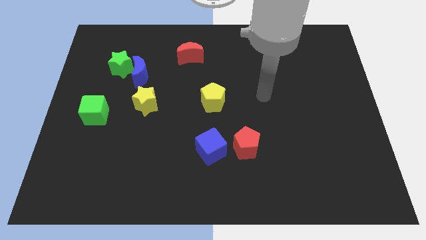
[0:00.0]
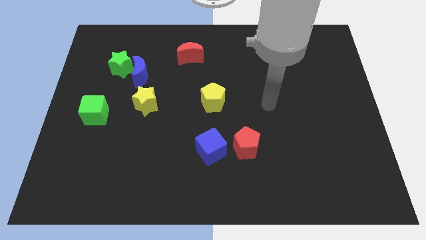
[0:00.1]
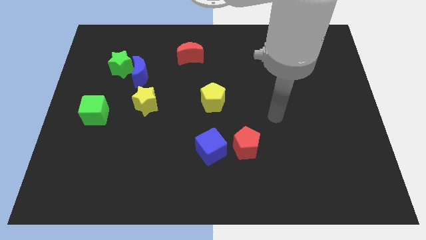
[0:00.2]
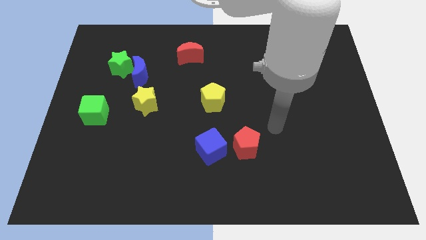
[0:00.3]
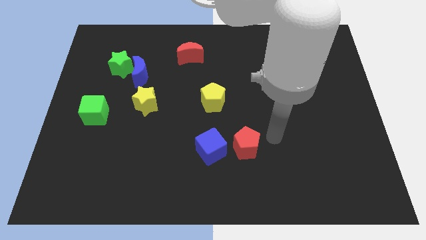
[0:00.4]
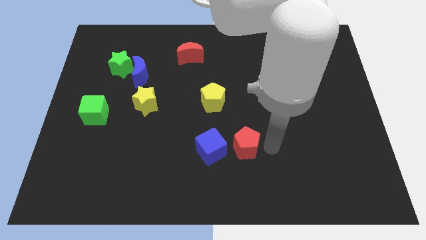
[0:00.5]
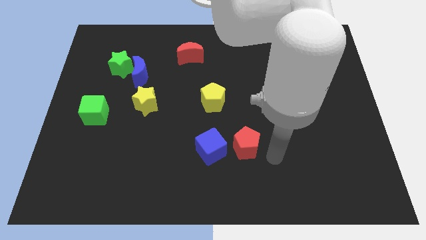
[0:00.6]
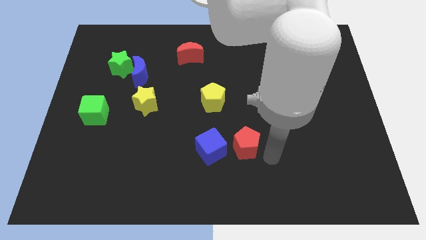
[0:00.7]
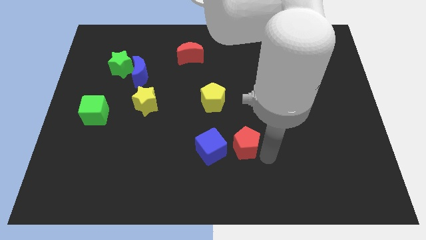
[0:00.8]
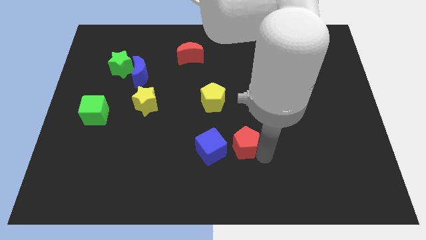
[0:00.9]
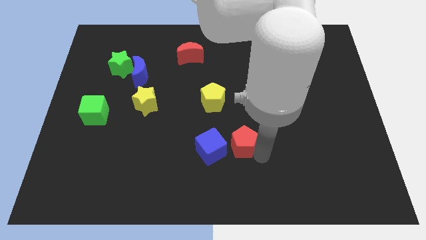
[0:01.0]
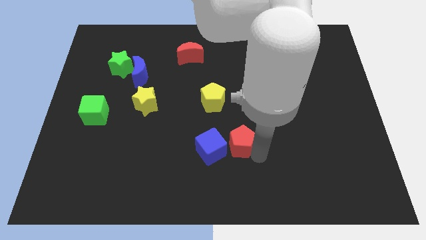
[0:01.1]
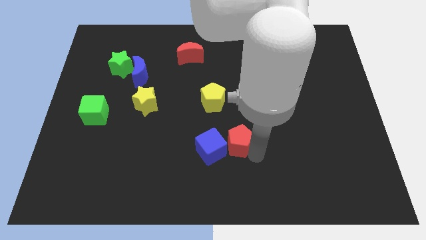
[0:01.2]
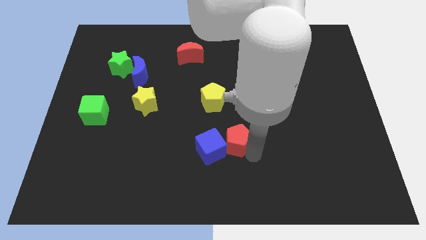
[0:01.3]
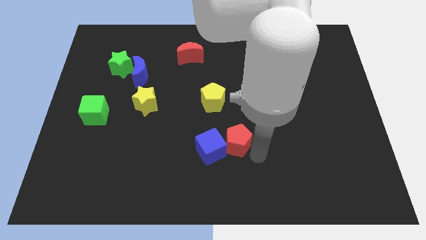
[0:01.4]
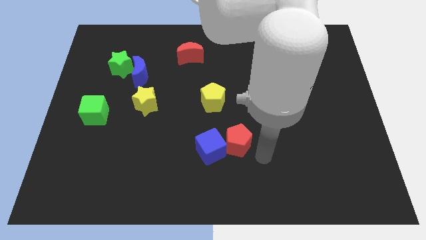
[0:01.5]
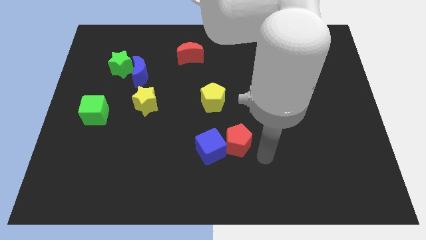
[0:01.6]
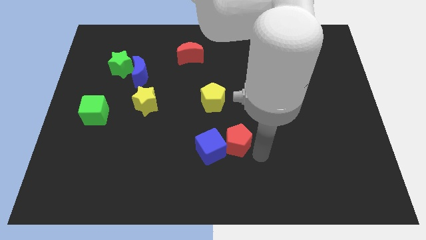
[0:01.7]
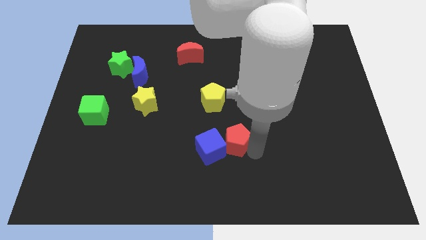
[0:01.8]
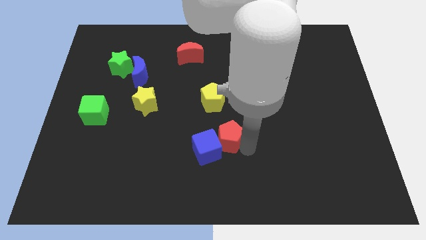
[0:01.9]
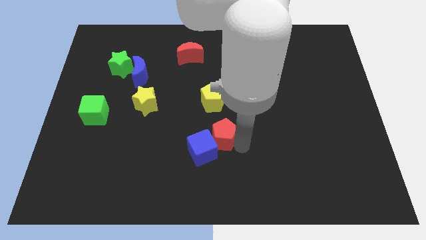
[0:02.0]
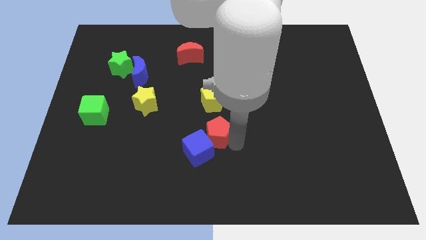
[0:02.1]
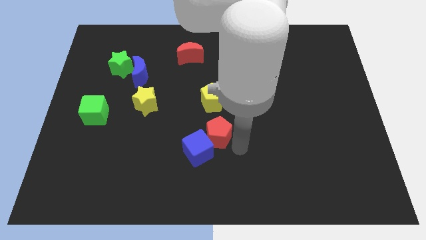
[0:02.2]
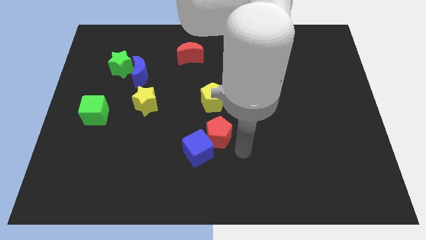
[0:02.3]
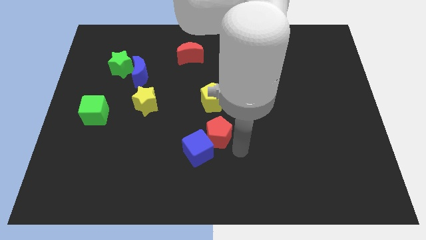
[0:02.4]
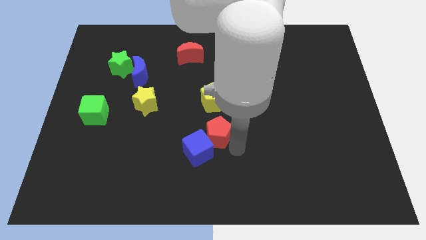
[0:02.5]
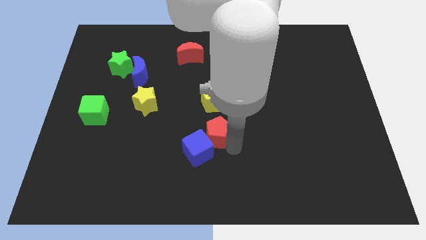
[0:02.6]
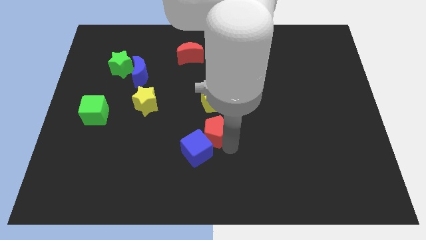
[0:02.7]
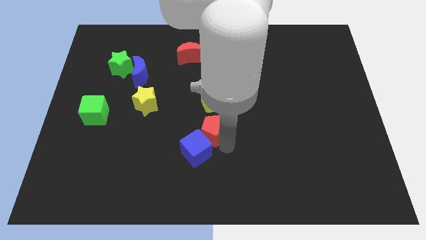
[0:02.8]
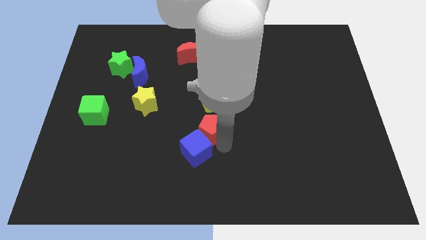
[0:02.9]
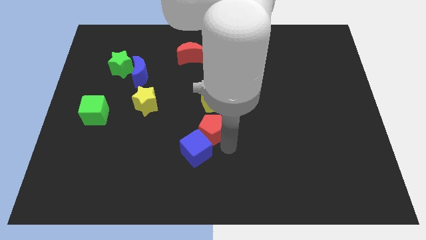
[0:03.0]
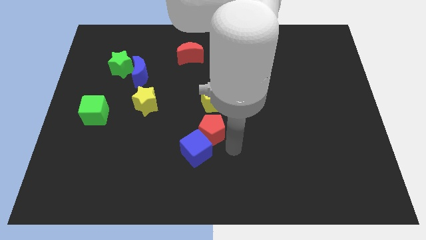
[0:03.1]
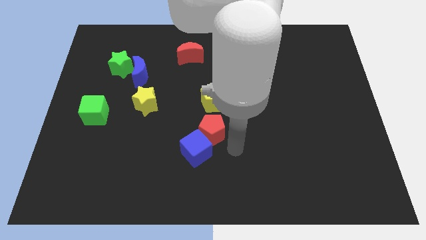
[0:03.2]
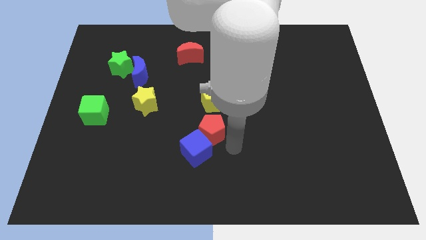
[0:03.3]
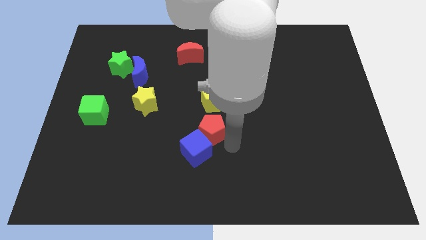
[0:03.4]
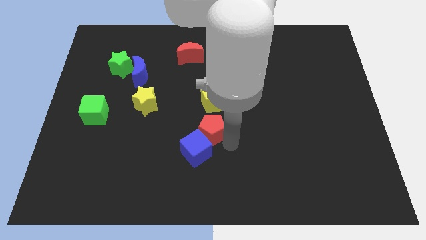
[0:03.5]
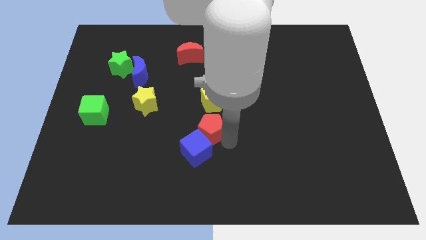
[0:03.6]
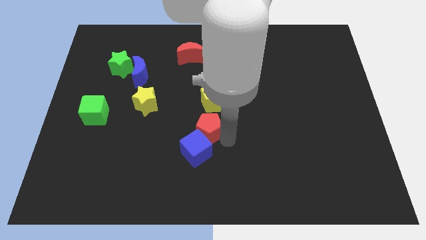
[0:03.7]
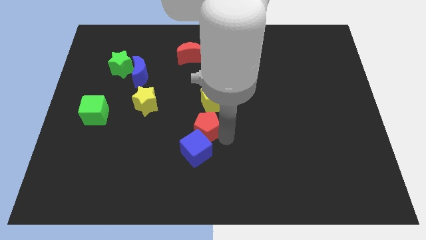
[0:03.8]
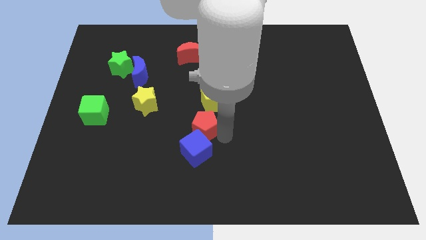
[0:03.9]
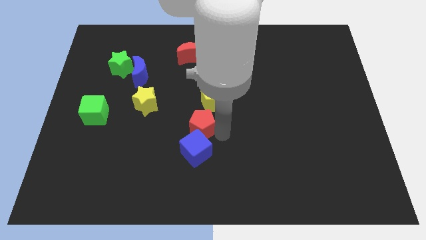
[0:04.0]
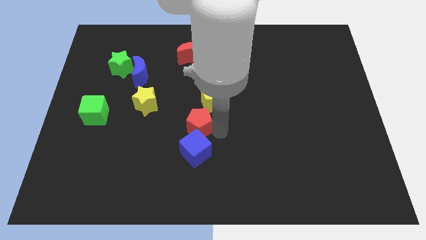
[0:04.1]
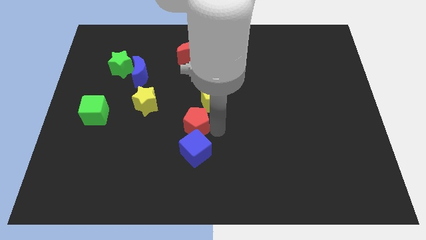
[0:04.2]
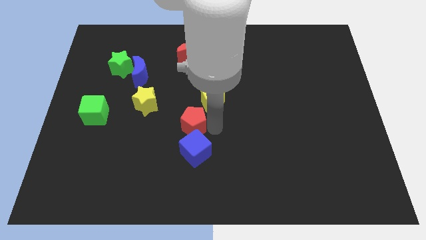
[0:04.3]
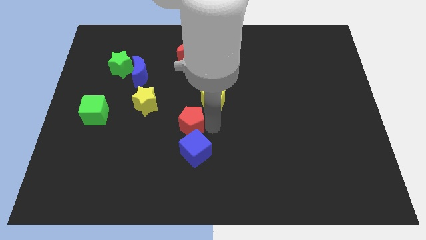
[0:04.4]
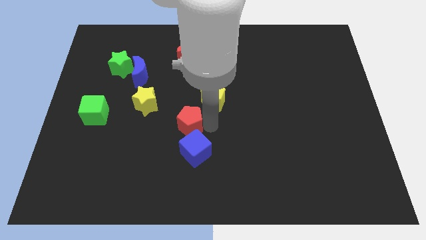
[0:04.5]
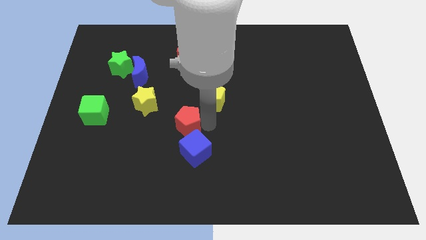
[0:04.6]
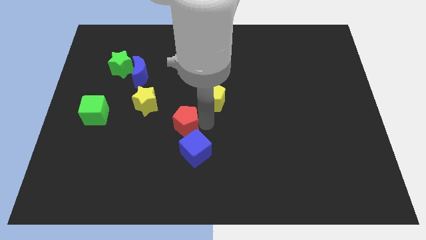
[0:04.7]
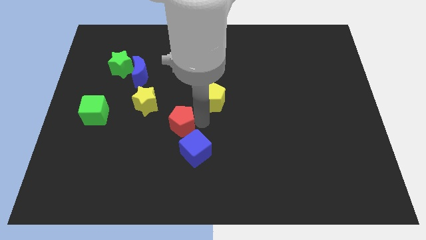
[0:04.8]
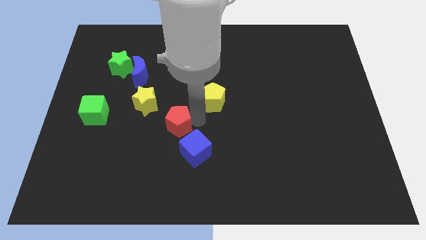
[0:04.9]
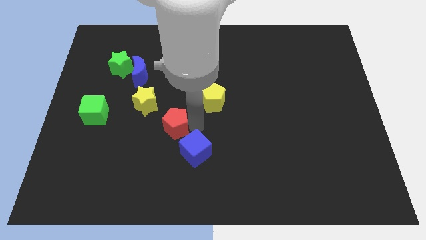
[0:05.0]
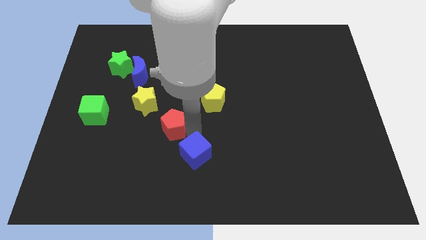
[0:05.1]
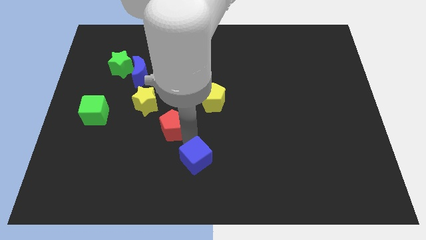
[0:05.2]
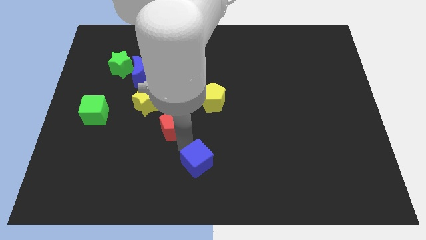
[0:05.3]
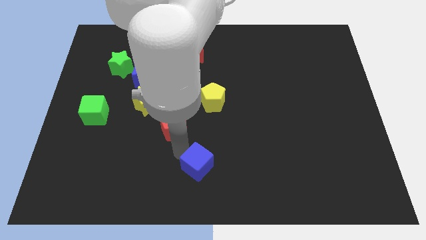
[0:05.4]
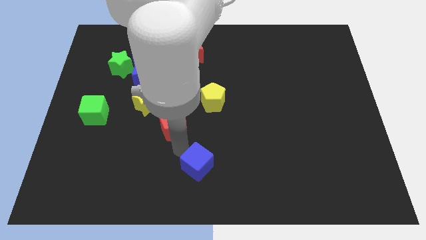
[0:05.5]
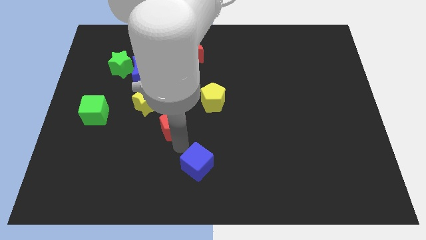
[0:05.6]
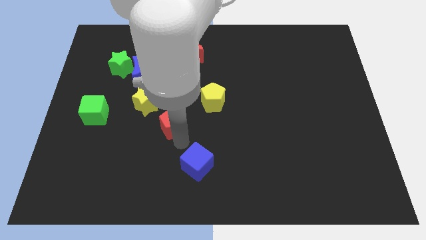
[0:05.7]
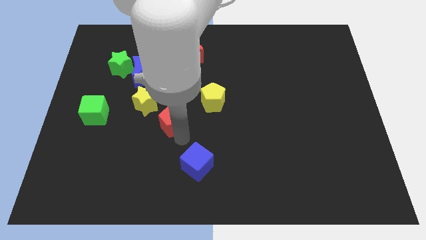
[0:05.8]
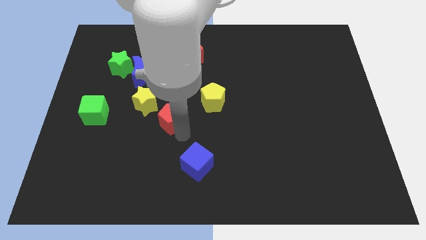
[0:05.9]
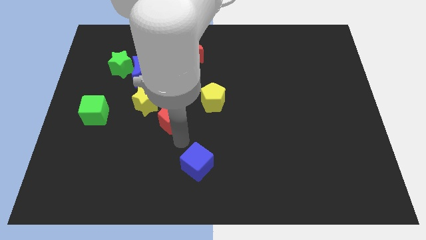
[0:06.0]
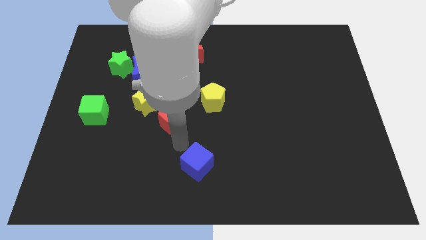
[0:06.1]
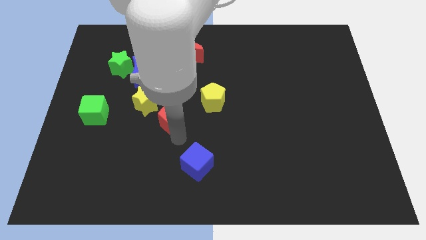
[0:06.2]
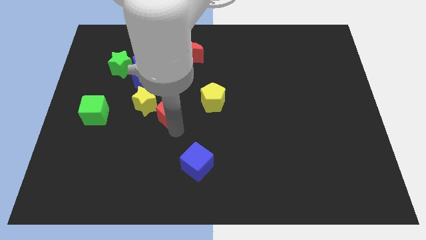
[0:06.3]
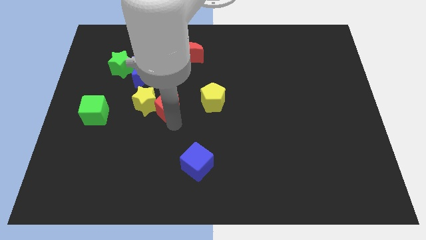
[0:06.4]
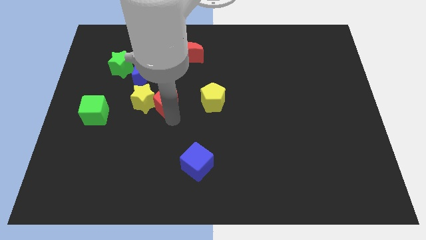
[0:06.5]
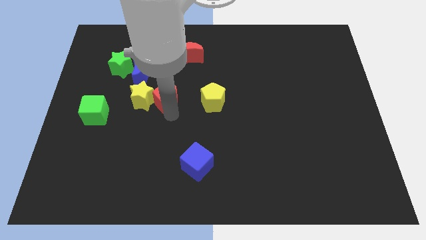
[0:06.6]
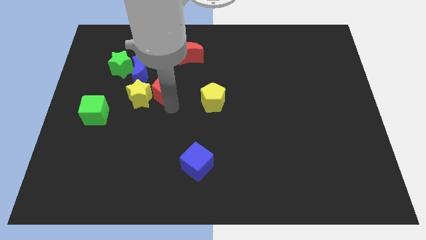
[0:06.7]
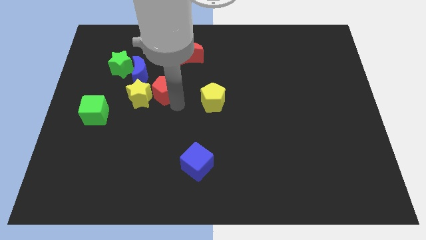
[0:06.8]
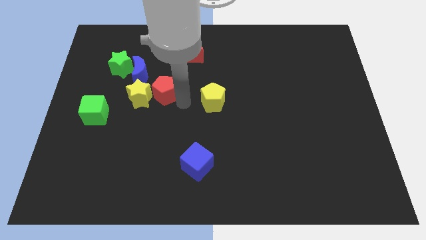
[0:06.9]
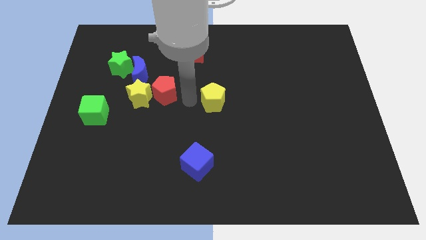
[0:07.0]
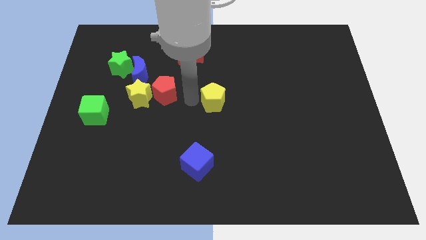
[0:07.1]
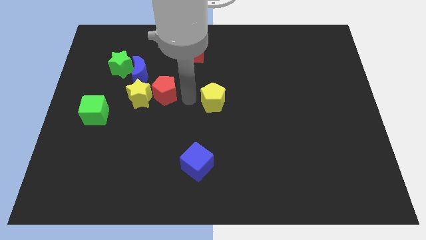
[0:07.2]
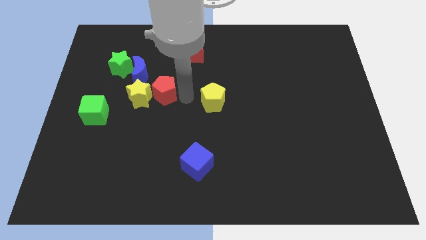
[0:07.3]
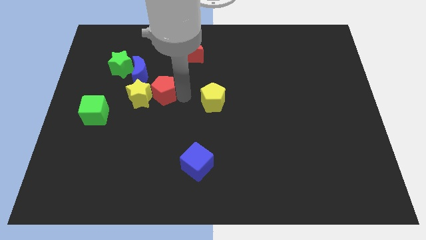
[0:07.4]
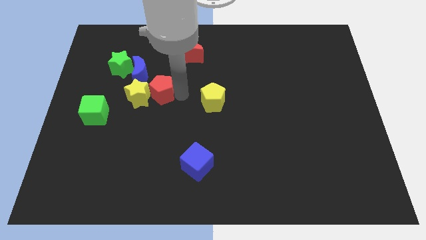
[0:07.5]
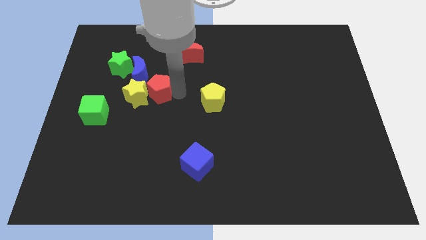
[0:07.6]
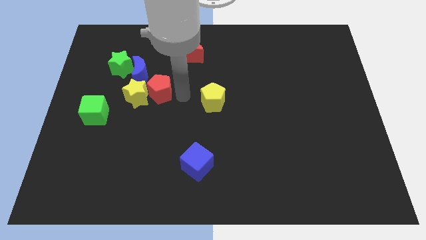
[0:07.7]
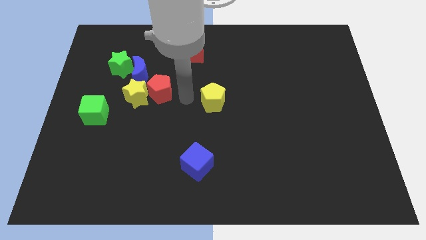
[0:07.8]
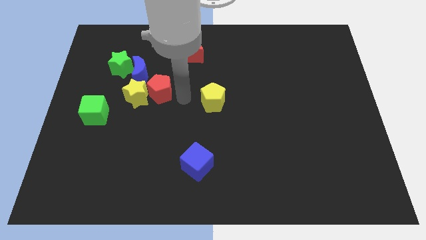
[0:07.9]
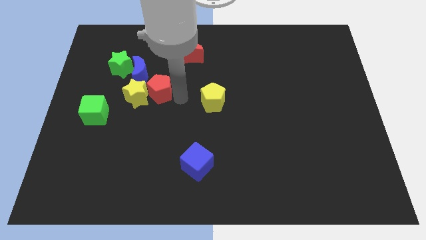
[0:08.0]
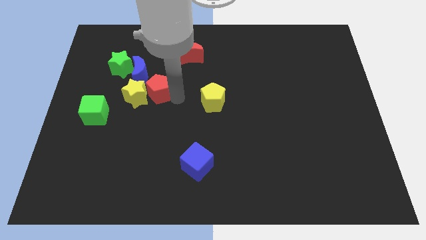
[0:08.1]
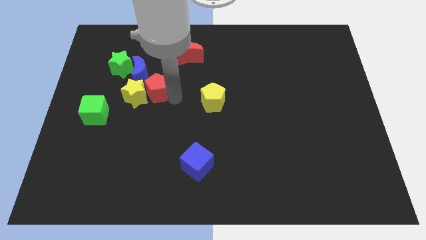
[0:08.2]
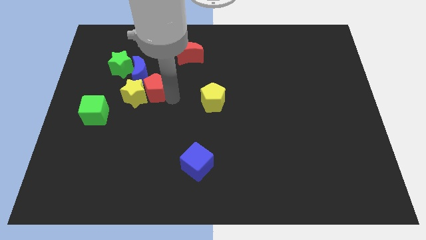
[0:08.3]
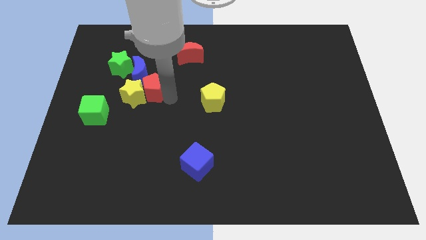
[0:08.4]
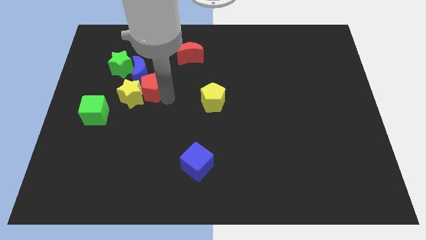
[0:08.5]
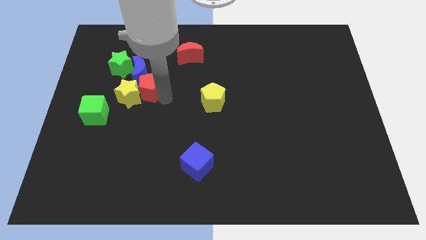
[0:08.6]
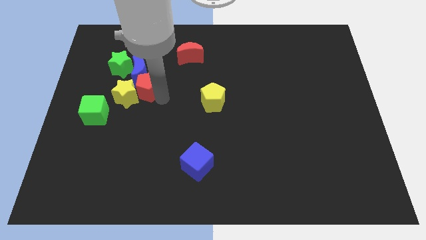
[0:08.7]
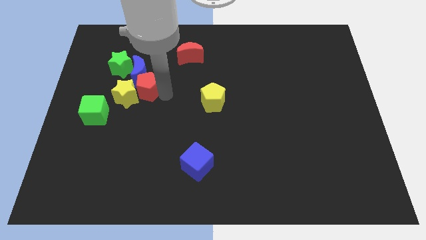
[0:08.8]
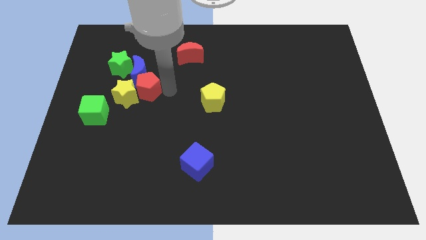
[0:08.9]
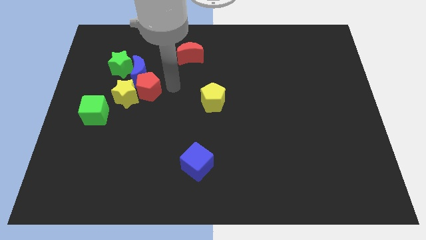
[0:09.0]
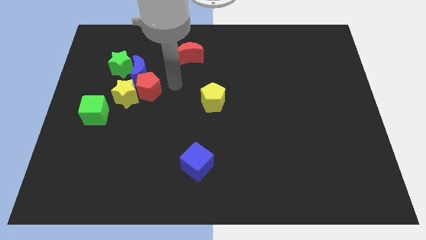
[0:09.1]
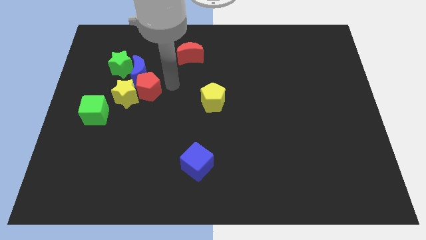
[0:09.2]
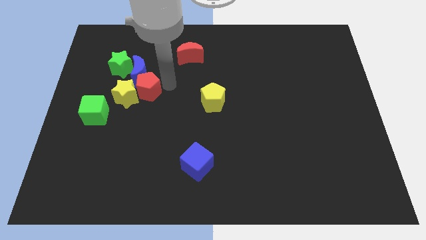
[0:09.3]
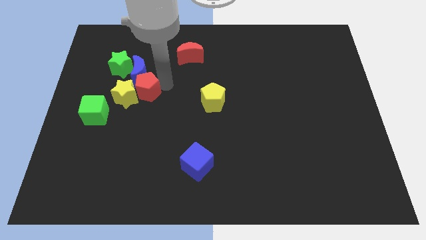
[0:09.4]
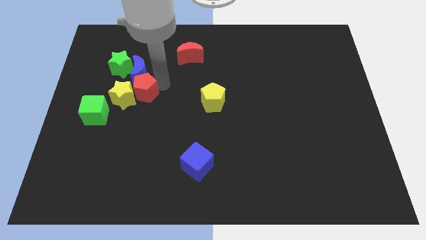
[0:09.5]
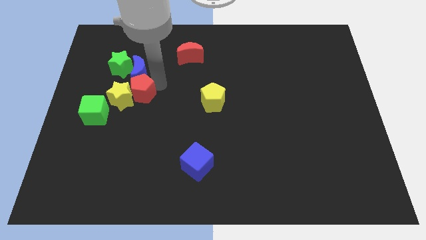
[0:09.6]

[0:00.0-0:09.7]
put the red pentagon diagonally up and to the right of the green cube
